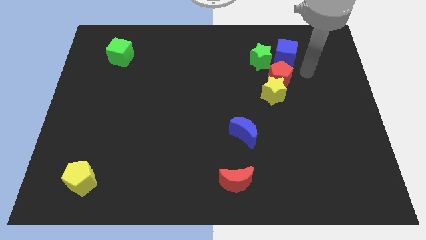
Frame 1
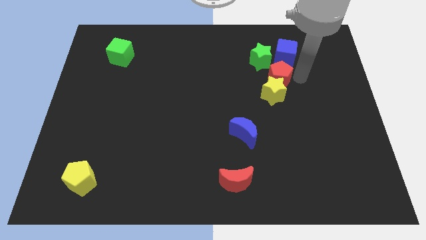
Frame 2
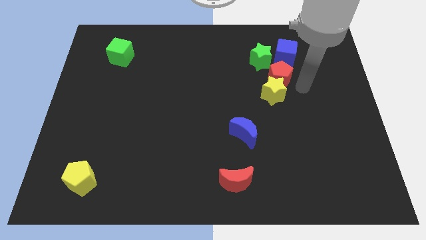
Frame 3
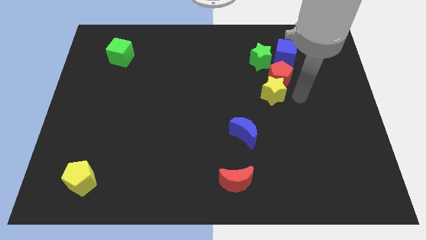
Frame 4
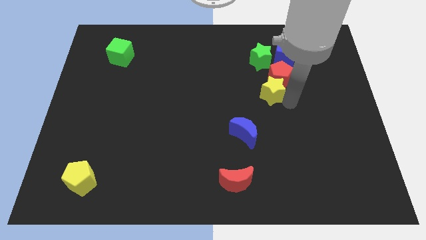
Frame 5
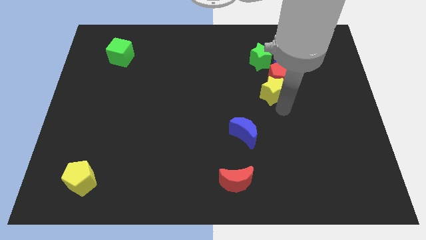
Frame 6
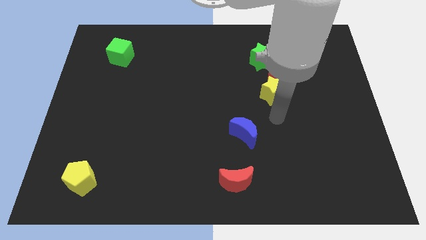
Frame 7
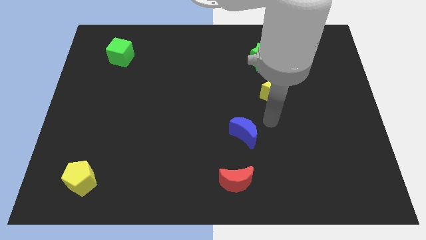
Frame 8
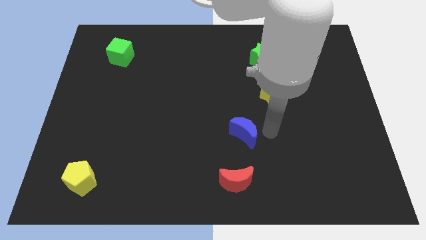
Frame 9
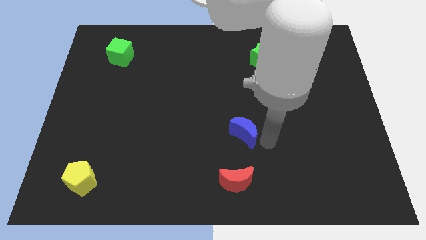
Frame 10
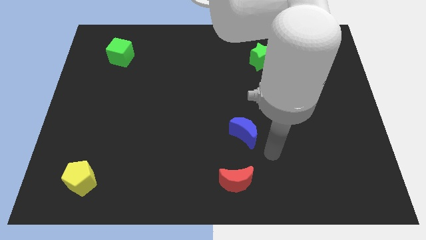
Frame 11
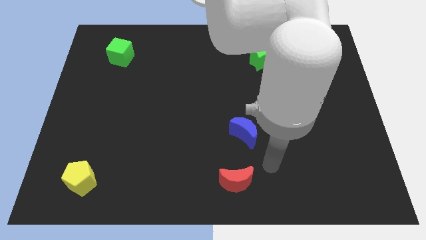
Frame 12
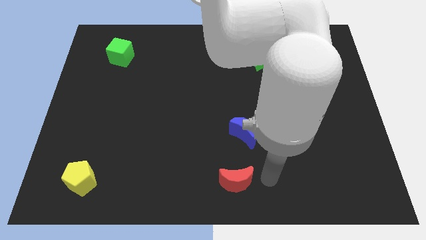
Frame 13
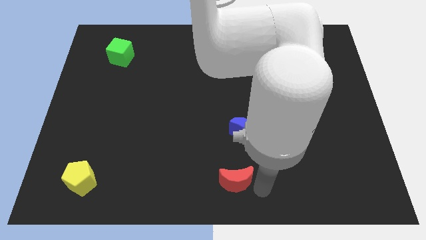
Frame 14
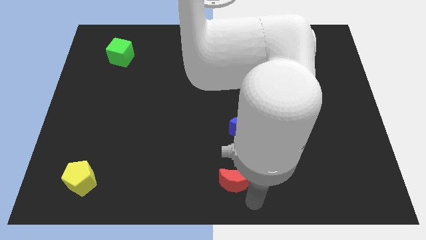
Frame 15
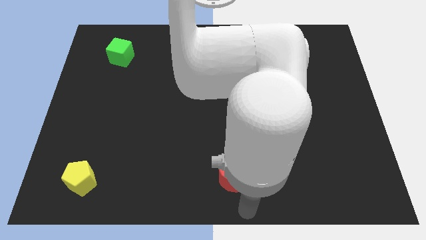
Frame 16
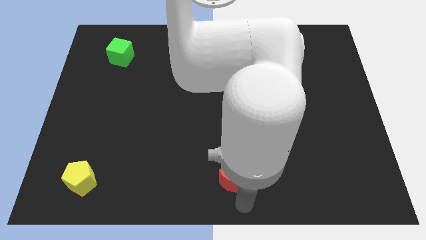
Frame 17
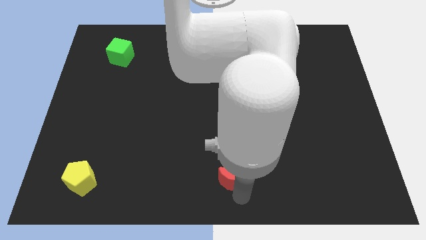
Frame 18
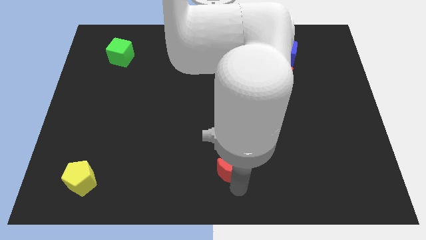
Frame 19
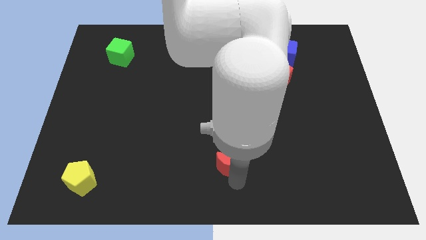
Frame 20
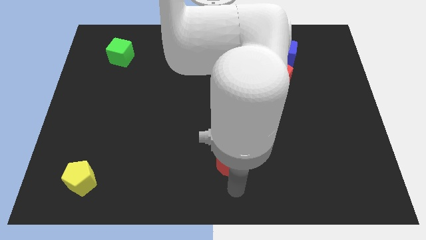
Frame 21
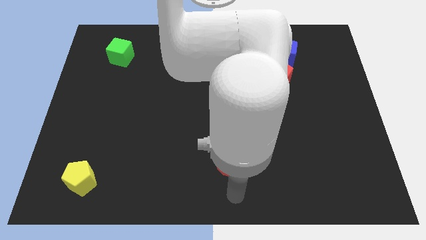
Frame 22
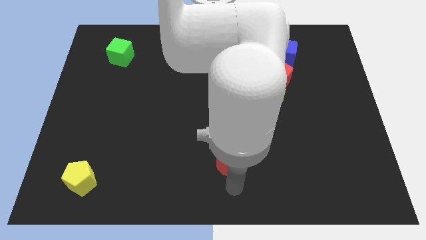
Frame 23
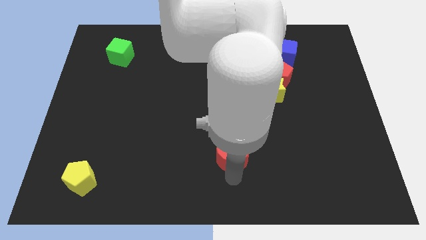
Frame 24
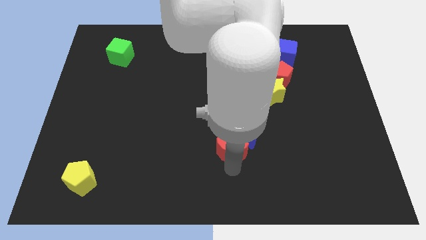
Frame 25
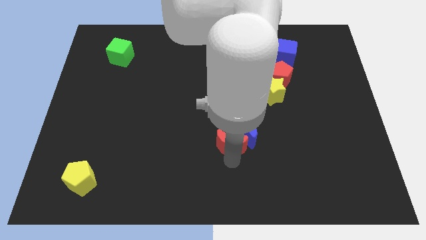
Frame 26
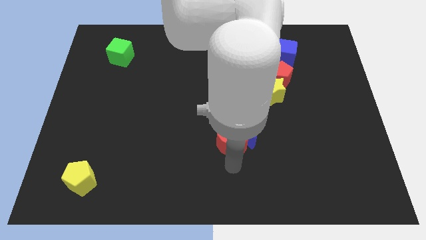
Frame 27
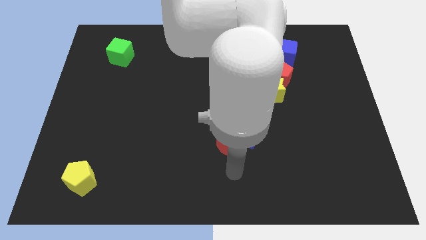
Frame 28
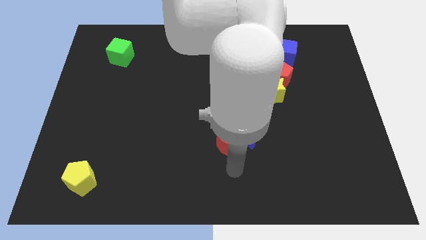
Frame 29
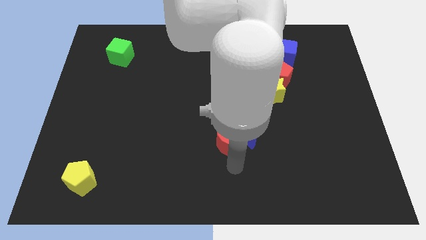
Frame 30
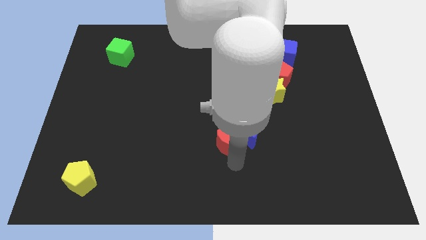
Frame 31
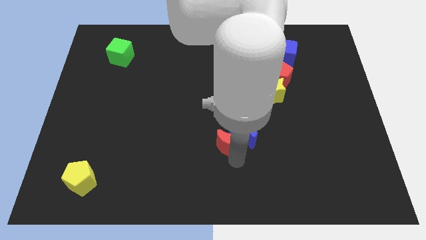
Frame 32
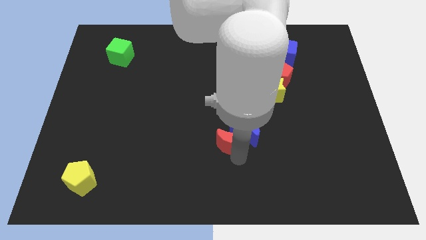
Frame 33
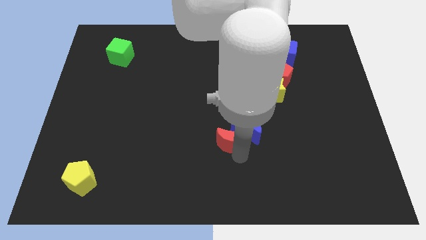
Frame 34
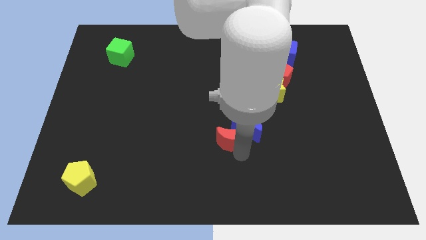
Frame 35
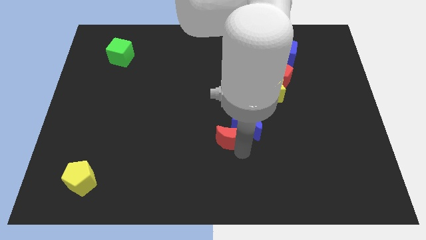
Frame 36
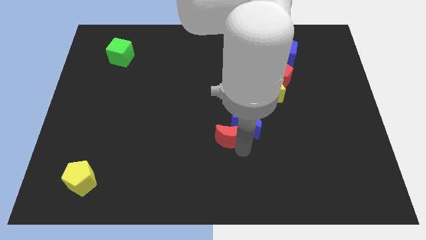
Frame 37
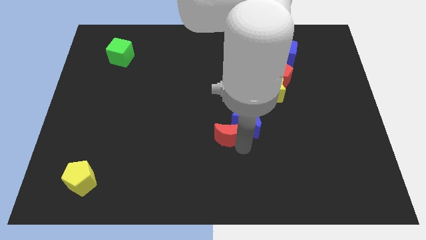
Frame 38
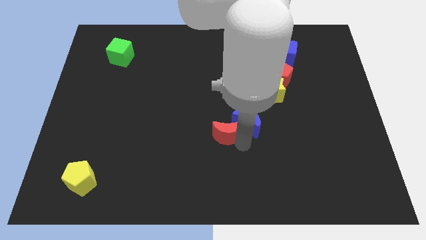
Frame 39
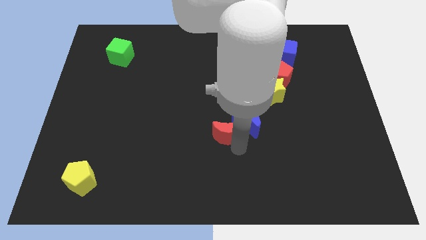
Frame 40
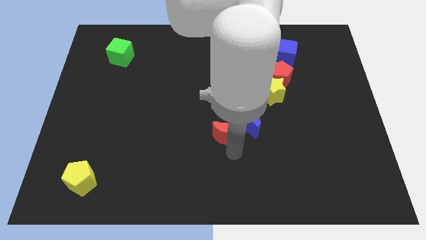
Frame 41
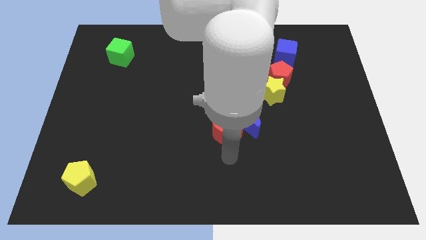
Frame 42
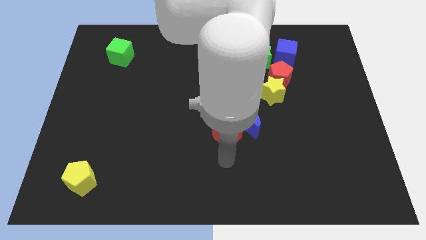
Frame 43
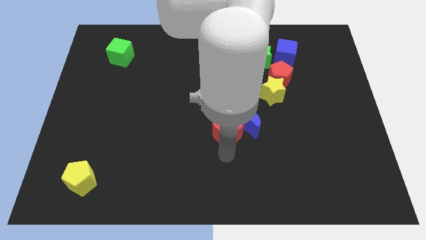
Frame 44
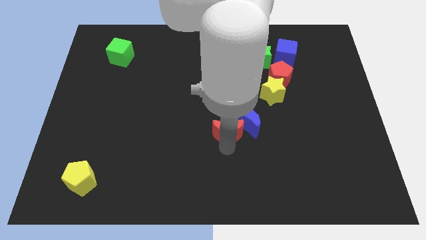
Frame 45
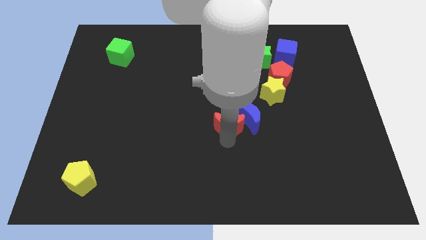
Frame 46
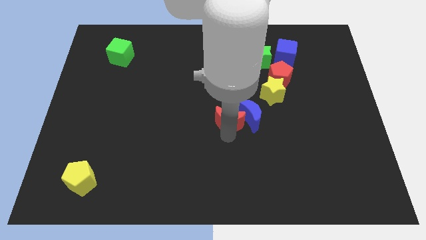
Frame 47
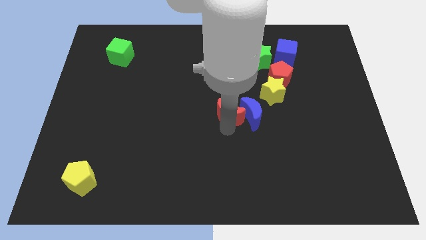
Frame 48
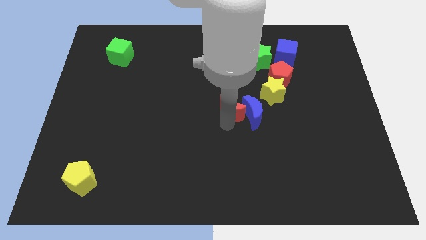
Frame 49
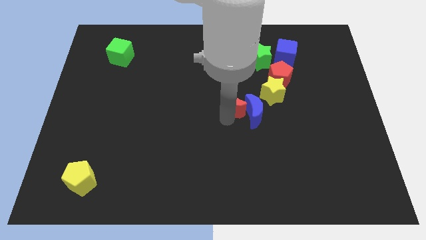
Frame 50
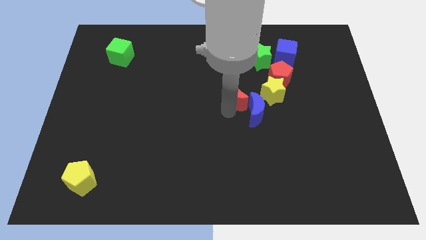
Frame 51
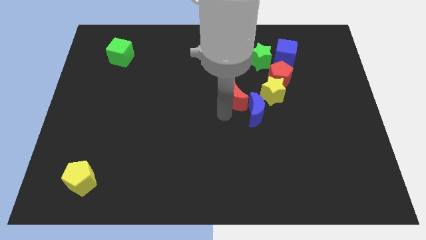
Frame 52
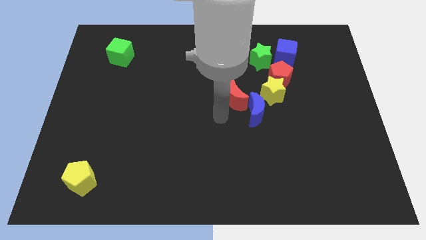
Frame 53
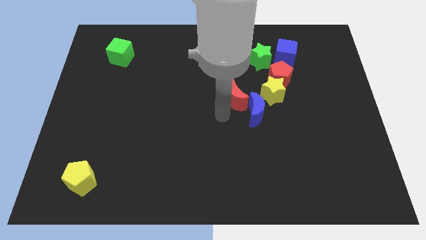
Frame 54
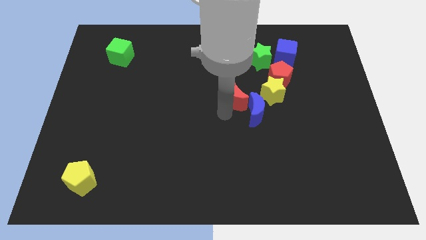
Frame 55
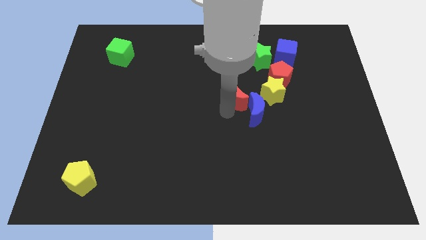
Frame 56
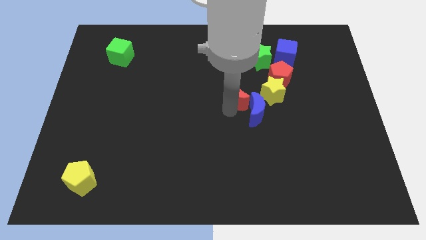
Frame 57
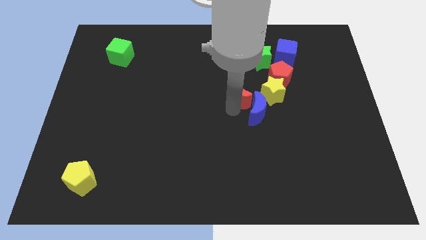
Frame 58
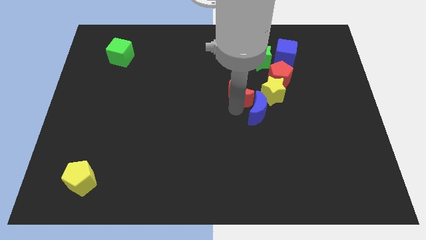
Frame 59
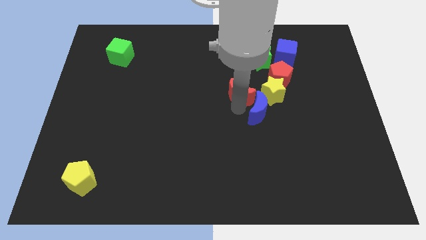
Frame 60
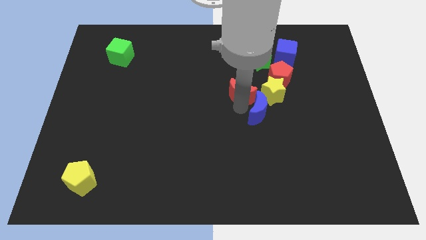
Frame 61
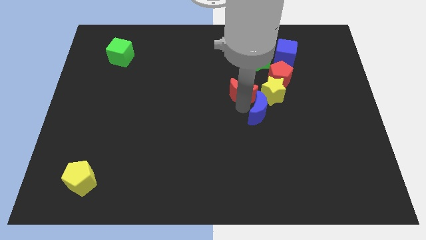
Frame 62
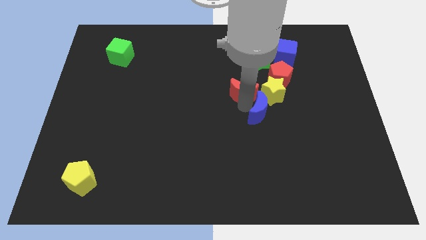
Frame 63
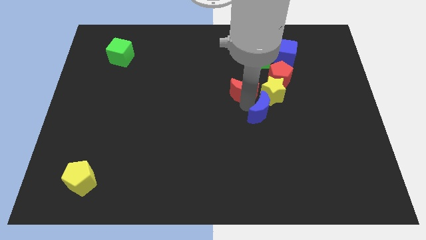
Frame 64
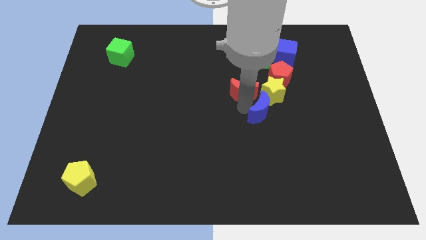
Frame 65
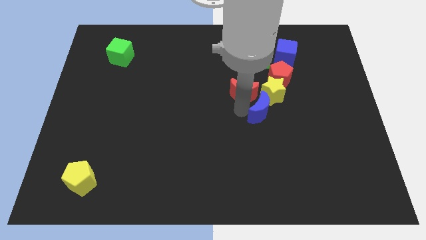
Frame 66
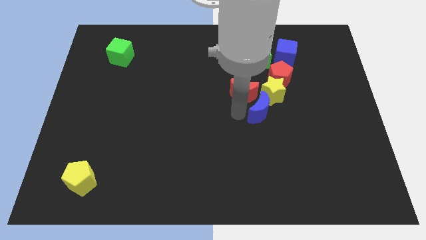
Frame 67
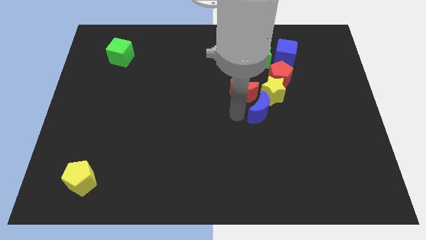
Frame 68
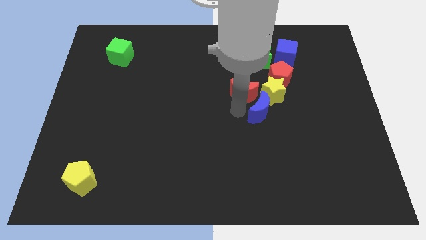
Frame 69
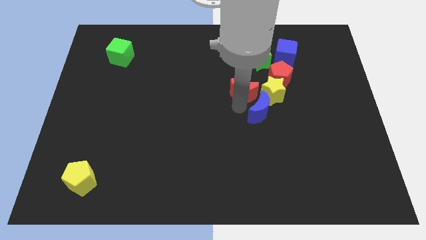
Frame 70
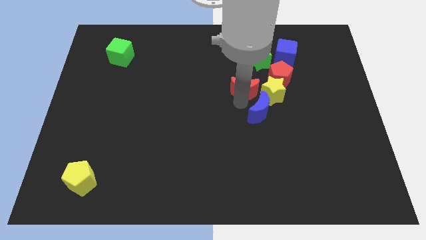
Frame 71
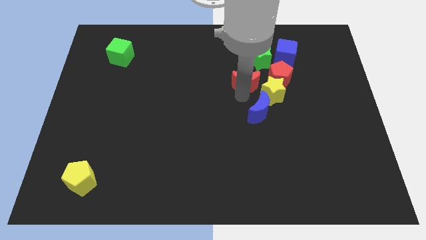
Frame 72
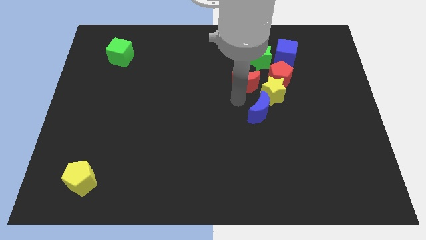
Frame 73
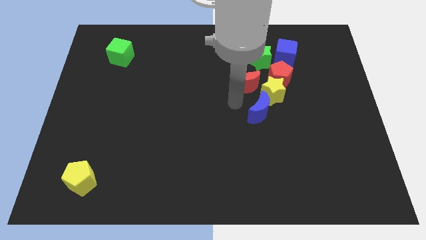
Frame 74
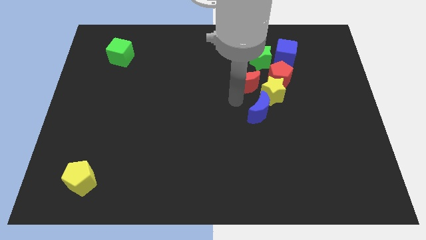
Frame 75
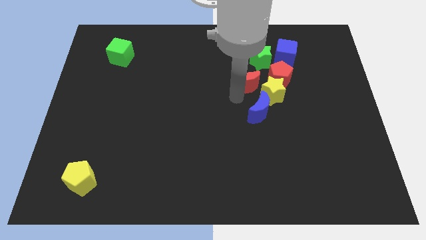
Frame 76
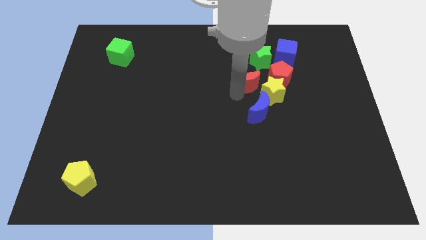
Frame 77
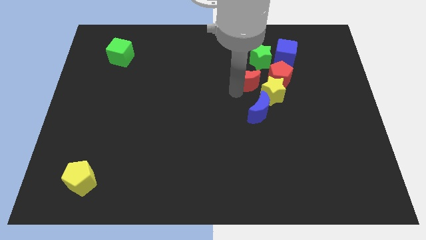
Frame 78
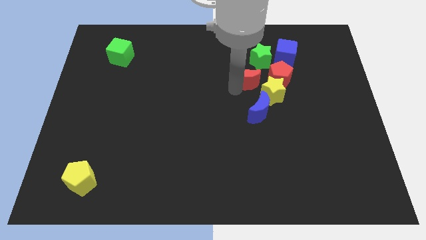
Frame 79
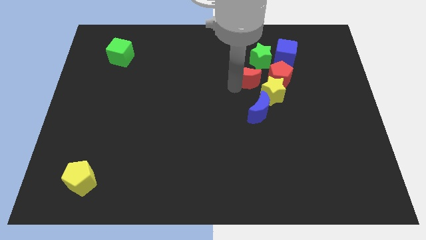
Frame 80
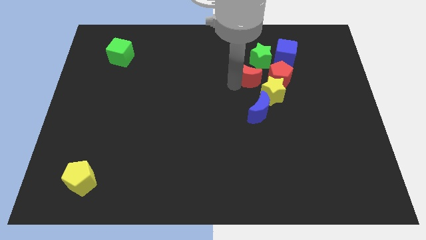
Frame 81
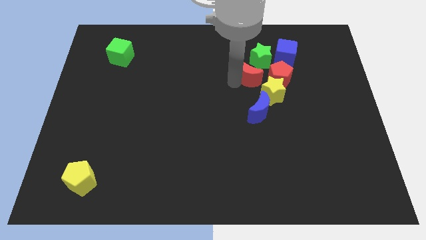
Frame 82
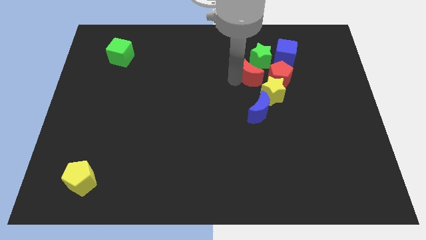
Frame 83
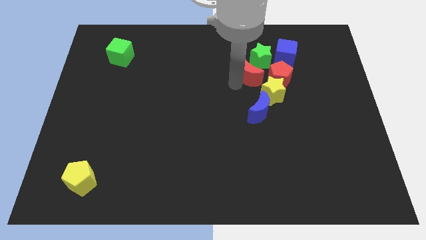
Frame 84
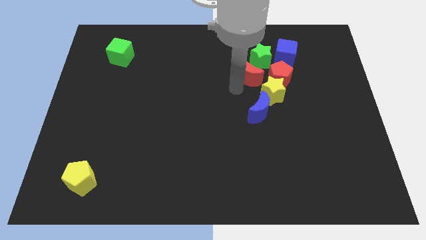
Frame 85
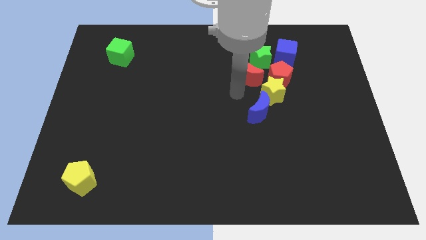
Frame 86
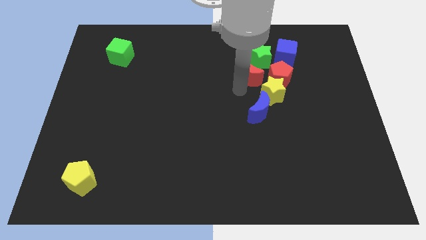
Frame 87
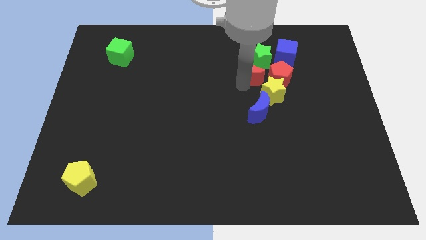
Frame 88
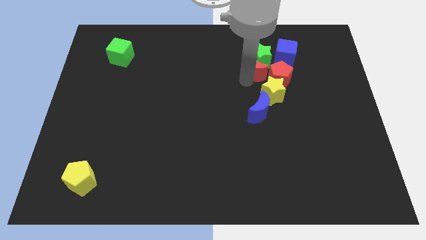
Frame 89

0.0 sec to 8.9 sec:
move the red moon to the green star
